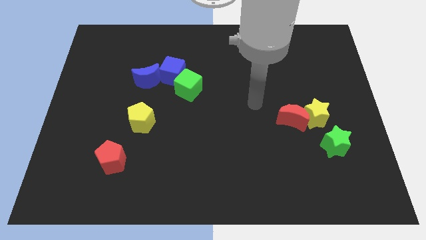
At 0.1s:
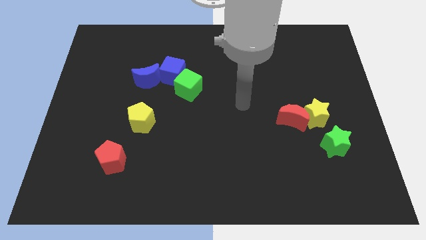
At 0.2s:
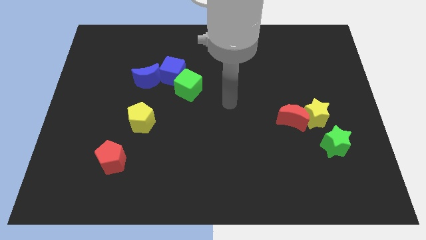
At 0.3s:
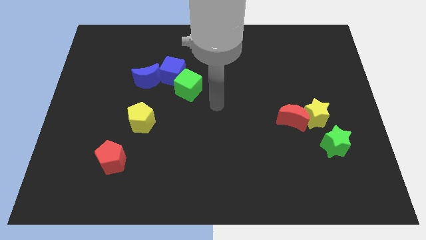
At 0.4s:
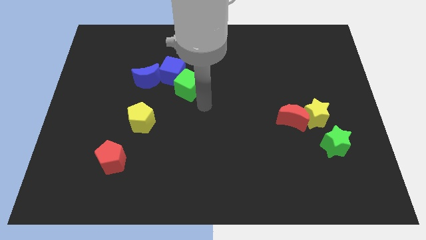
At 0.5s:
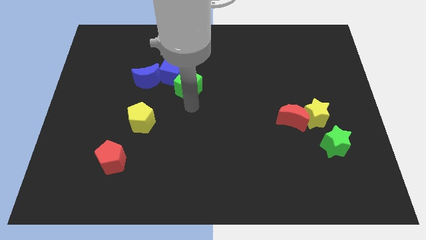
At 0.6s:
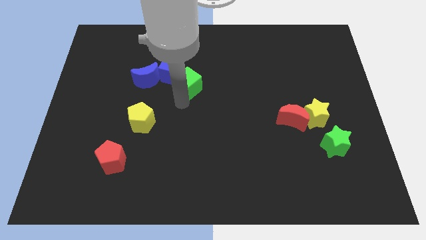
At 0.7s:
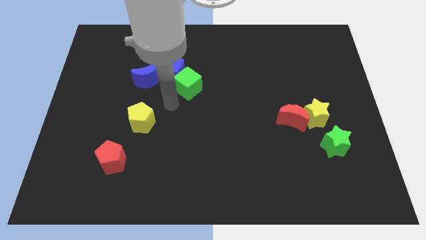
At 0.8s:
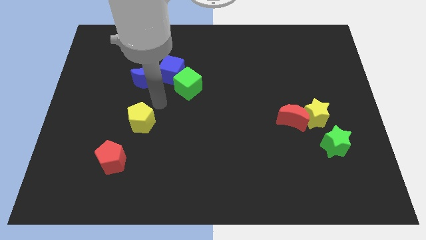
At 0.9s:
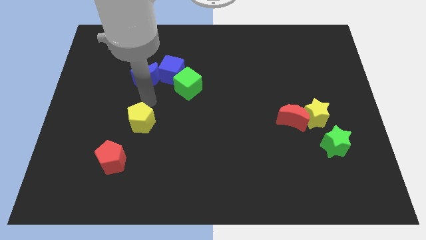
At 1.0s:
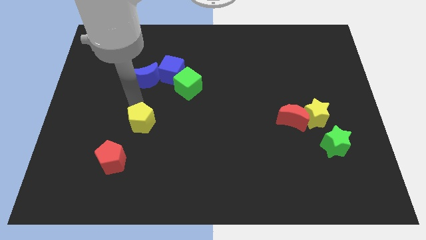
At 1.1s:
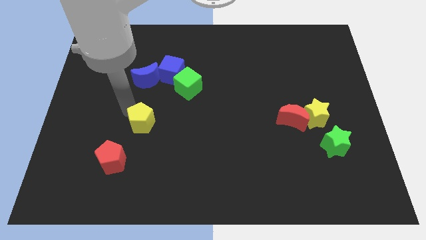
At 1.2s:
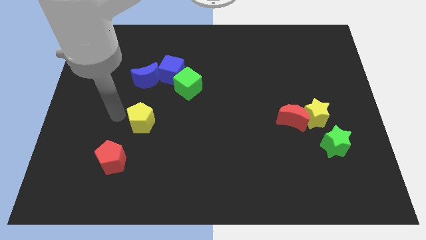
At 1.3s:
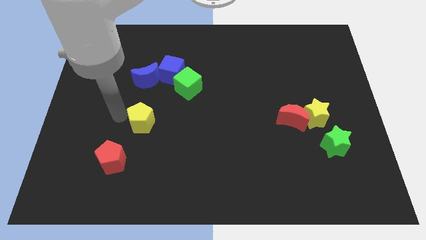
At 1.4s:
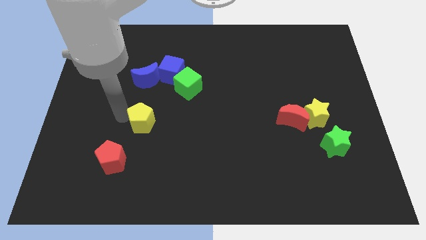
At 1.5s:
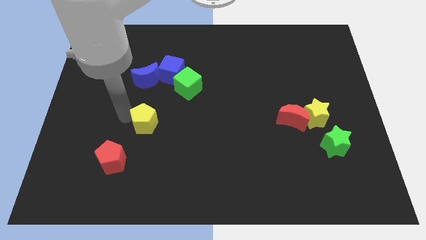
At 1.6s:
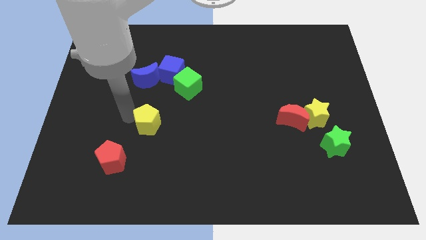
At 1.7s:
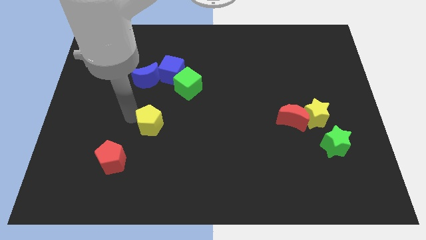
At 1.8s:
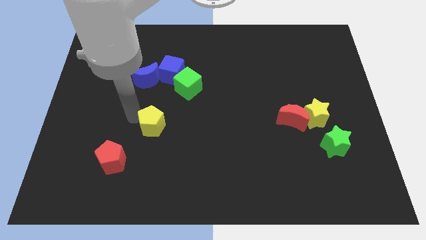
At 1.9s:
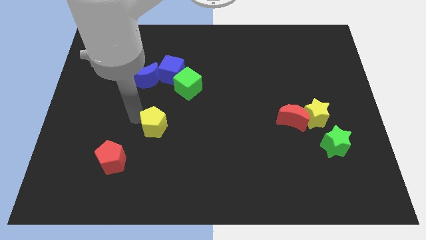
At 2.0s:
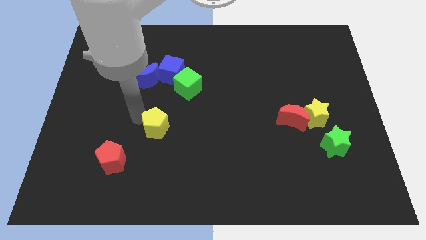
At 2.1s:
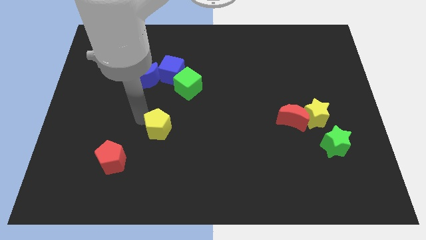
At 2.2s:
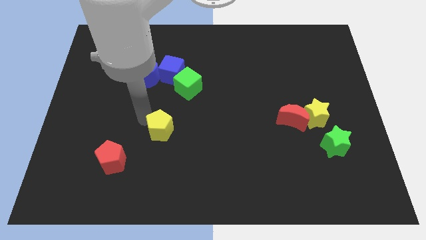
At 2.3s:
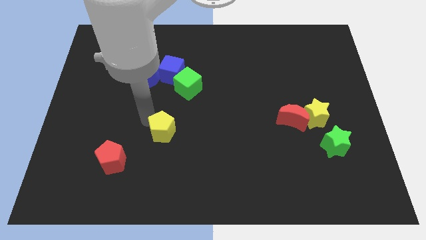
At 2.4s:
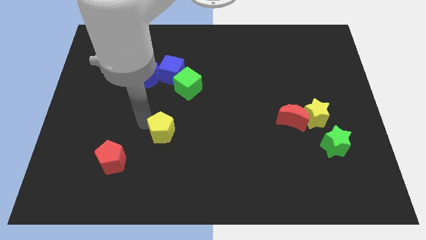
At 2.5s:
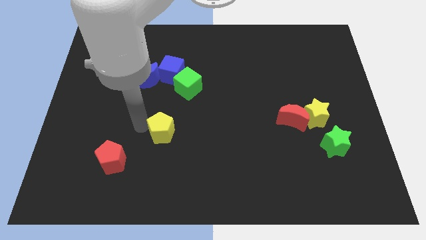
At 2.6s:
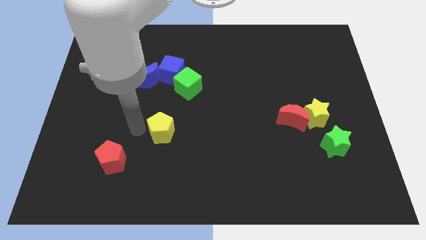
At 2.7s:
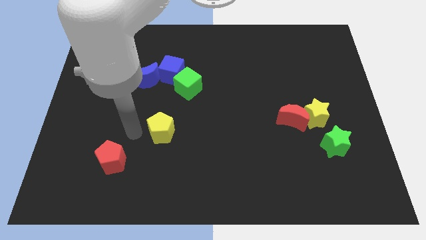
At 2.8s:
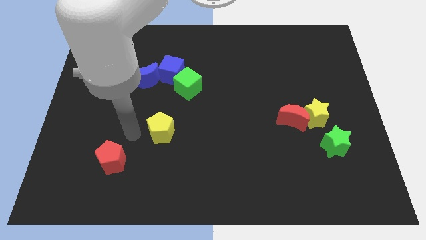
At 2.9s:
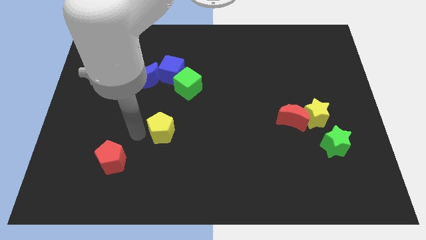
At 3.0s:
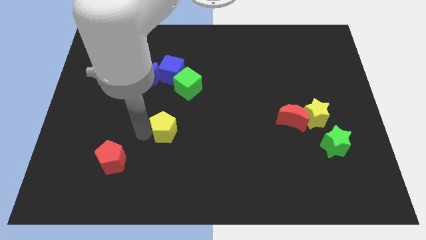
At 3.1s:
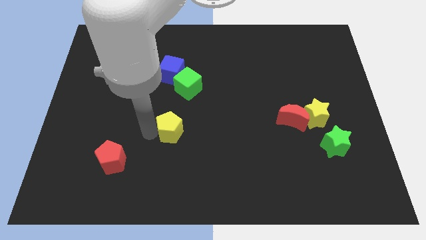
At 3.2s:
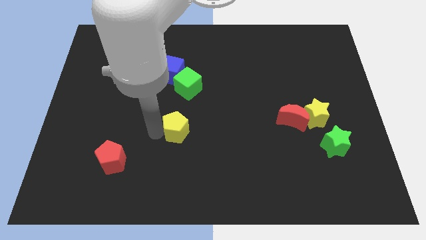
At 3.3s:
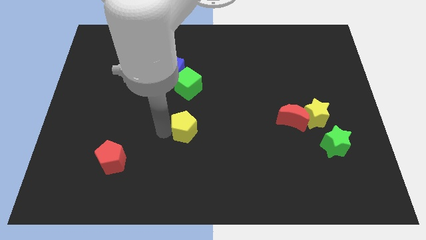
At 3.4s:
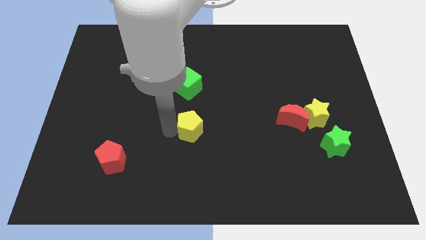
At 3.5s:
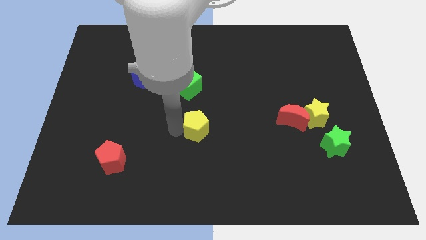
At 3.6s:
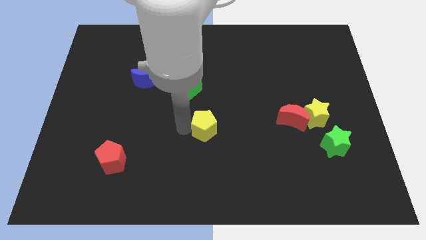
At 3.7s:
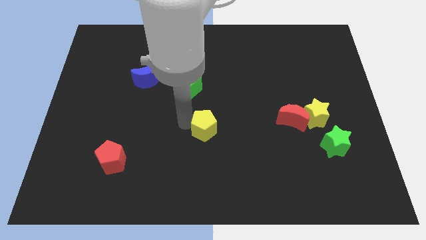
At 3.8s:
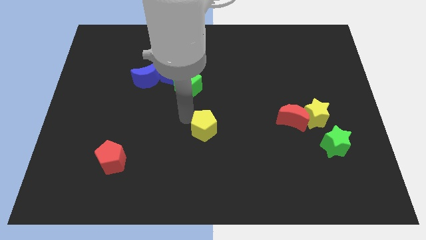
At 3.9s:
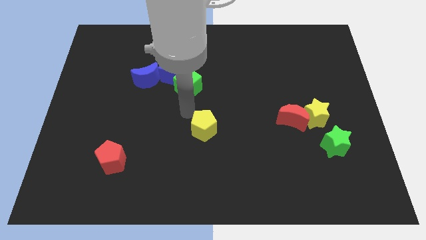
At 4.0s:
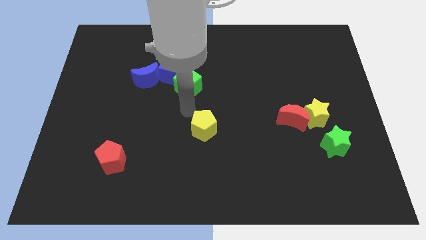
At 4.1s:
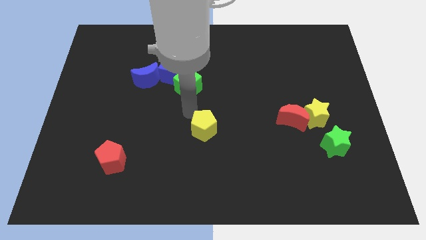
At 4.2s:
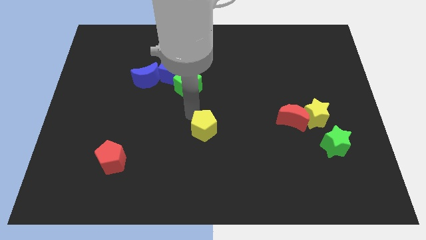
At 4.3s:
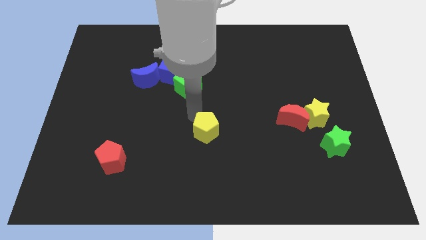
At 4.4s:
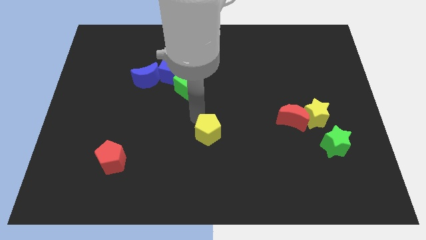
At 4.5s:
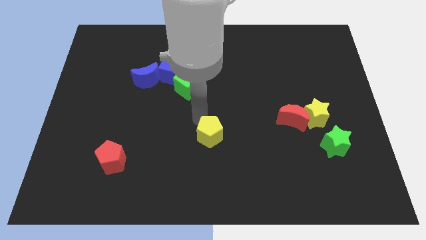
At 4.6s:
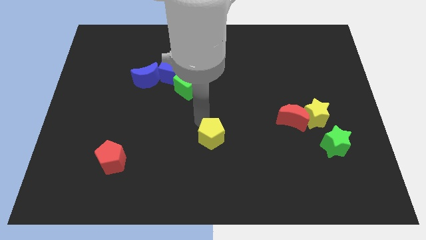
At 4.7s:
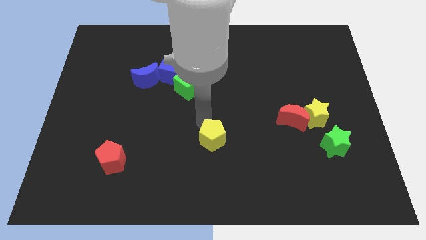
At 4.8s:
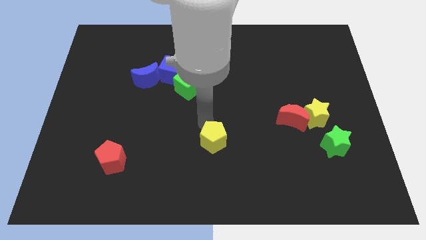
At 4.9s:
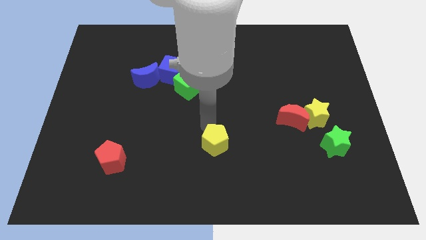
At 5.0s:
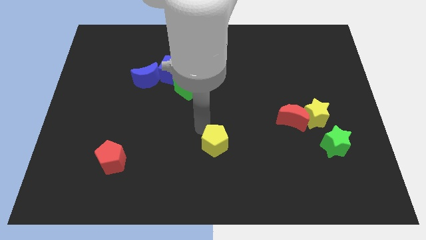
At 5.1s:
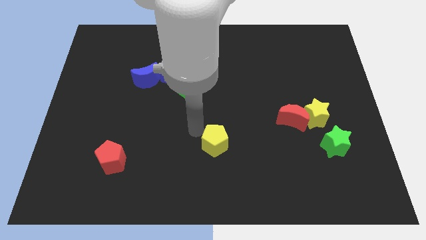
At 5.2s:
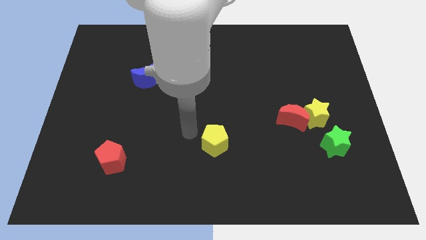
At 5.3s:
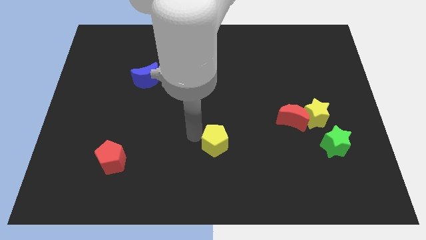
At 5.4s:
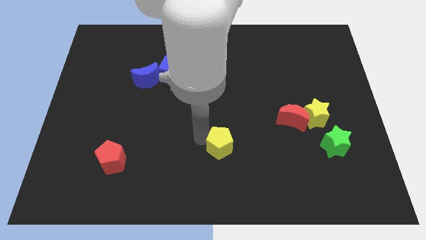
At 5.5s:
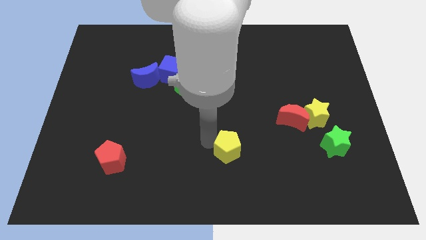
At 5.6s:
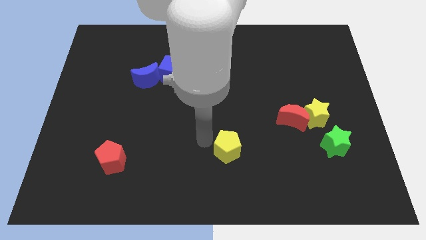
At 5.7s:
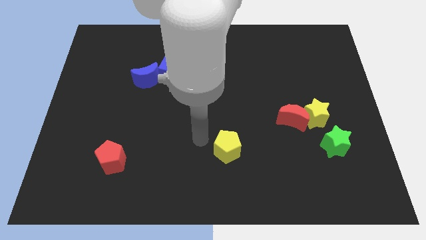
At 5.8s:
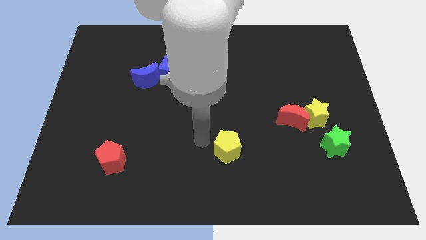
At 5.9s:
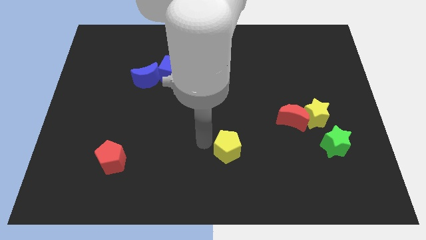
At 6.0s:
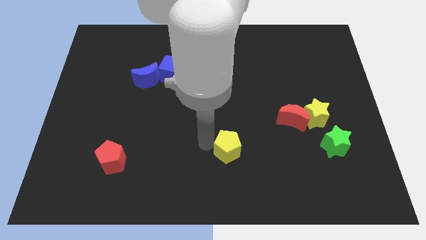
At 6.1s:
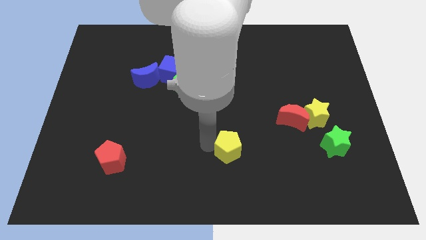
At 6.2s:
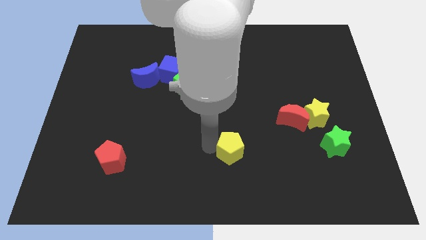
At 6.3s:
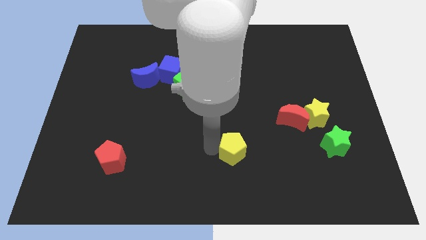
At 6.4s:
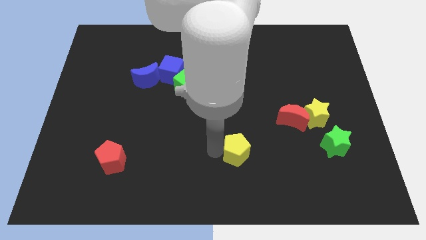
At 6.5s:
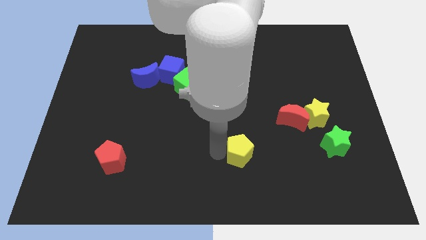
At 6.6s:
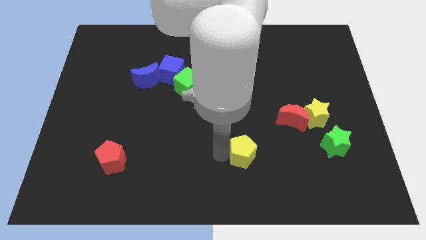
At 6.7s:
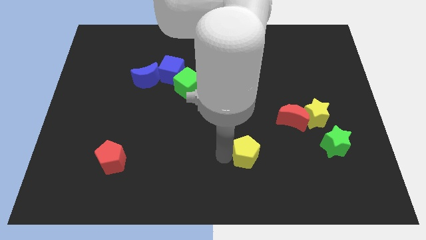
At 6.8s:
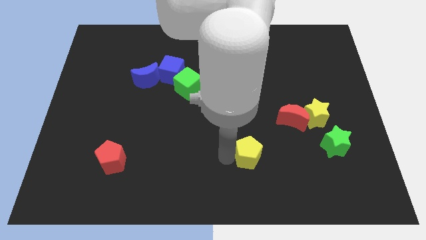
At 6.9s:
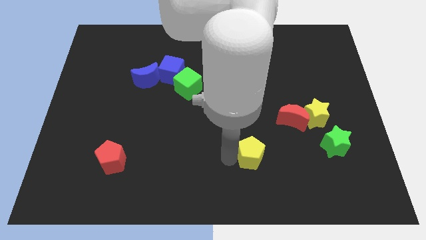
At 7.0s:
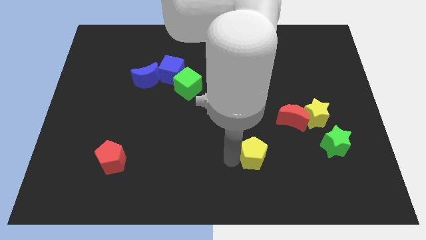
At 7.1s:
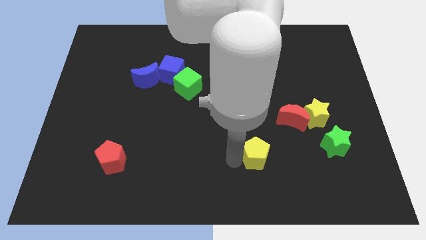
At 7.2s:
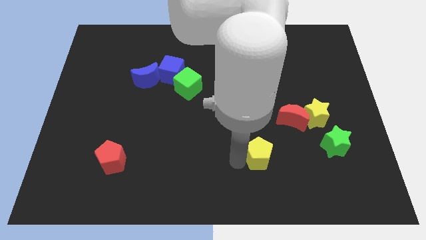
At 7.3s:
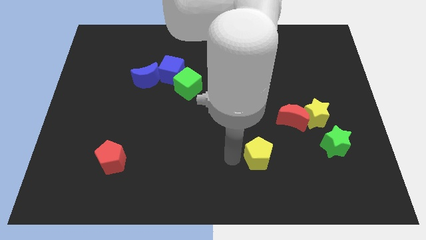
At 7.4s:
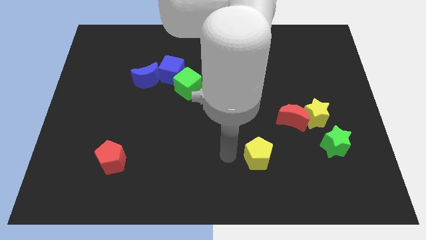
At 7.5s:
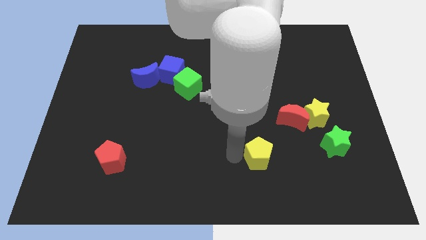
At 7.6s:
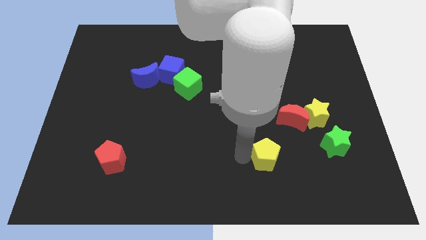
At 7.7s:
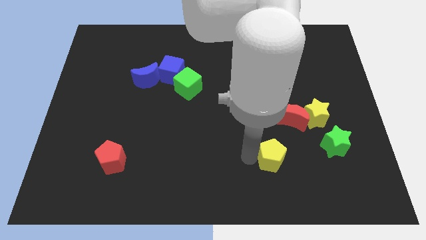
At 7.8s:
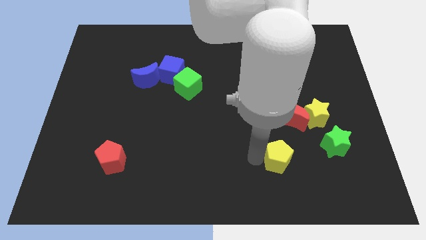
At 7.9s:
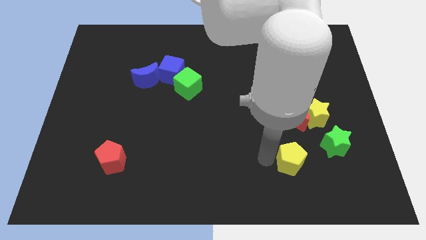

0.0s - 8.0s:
put the yellow pentagon to the bottom left of the green star
